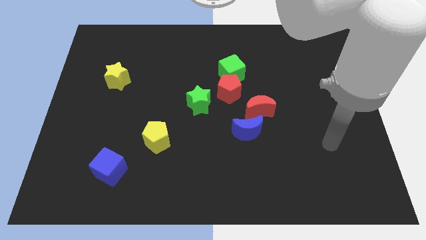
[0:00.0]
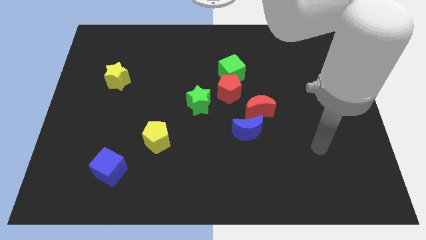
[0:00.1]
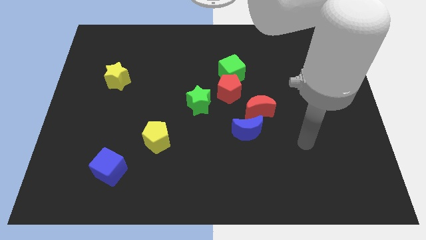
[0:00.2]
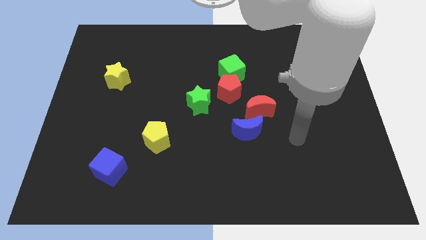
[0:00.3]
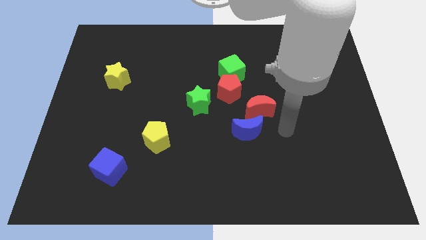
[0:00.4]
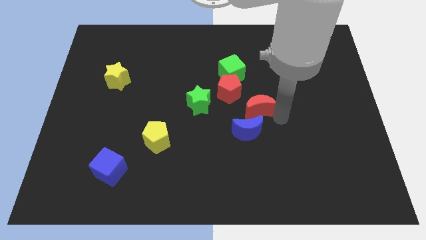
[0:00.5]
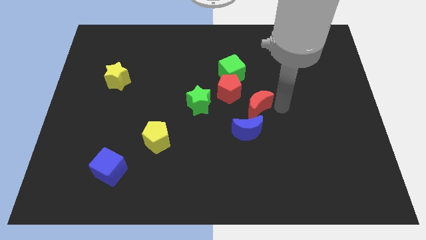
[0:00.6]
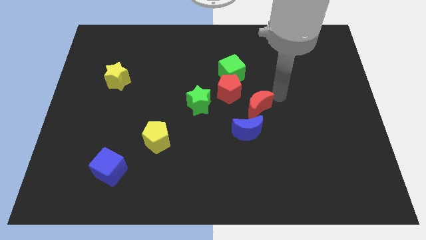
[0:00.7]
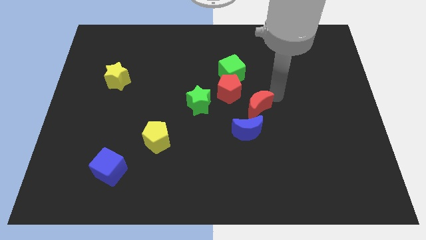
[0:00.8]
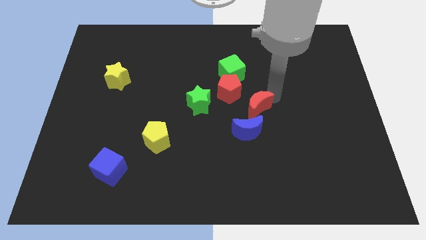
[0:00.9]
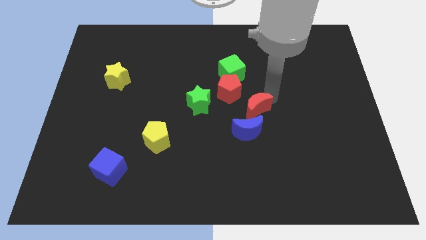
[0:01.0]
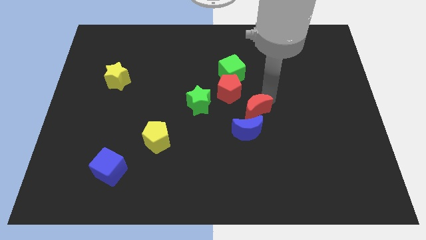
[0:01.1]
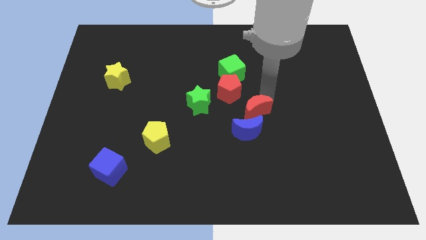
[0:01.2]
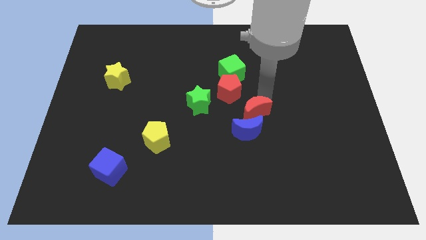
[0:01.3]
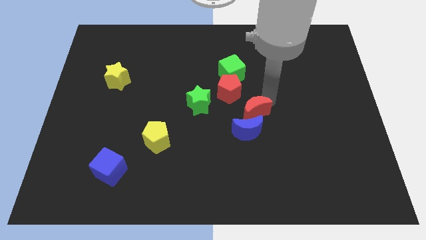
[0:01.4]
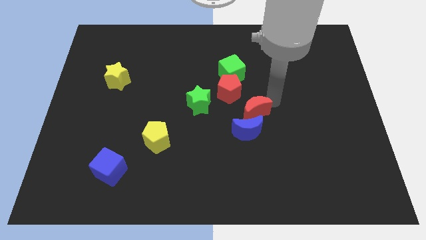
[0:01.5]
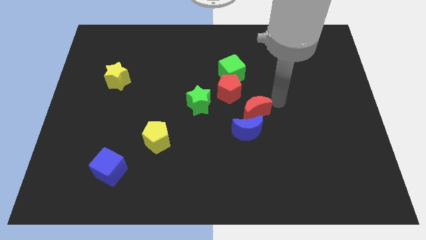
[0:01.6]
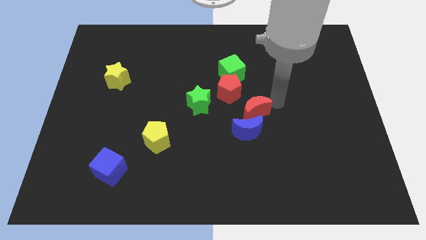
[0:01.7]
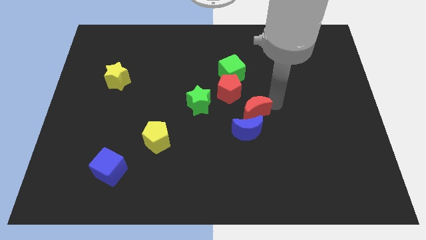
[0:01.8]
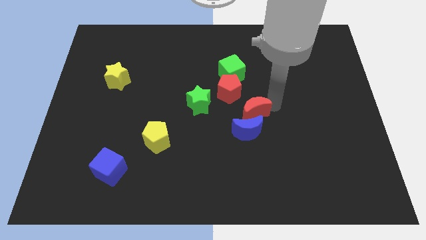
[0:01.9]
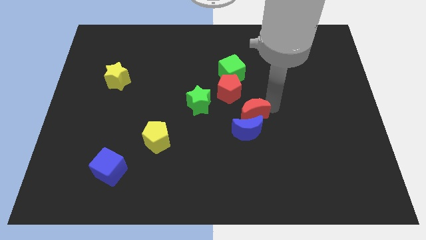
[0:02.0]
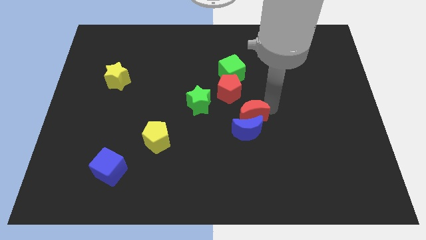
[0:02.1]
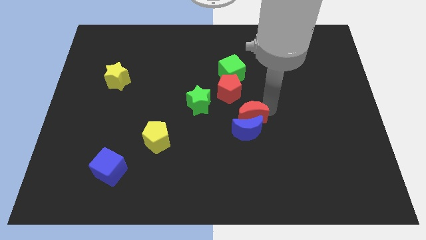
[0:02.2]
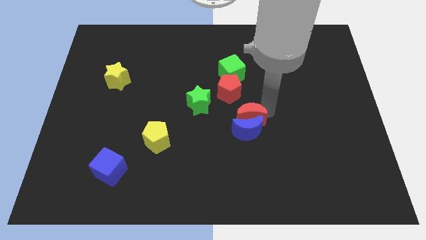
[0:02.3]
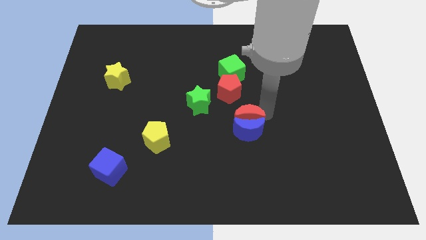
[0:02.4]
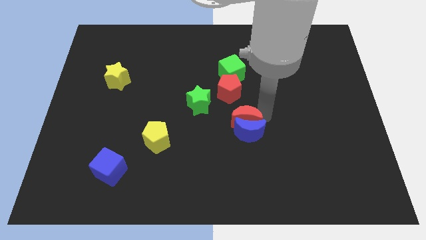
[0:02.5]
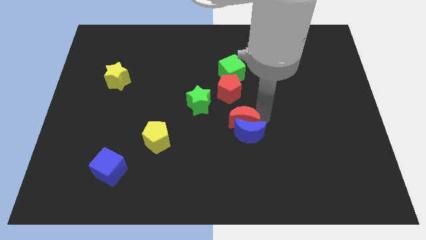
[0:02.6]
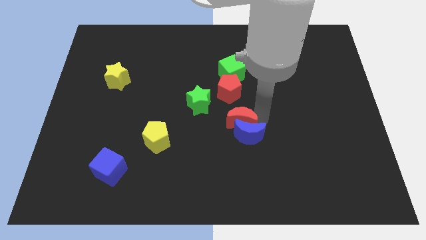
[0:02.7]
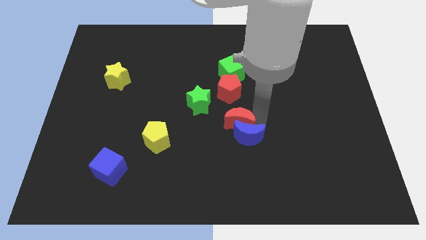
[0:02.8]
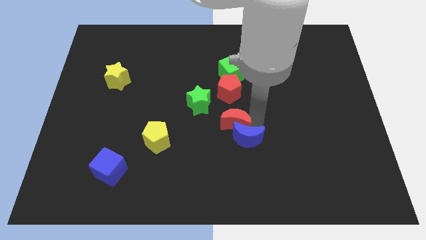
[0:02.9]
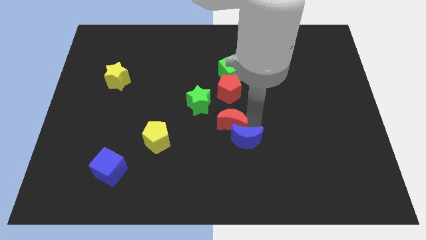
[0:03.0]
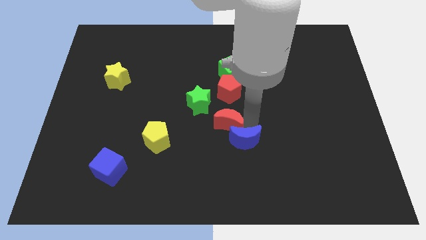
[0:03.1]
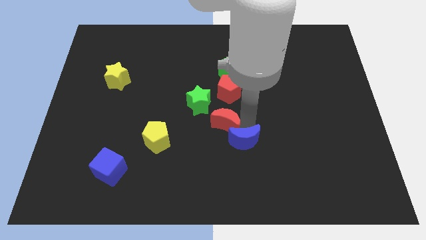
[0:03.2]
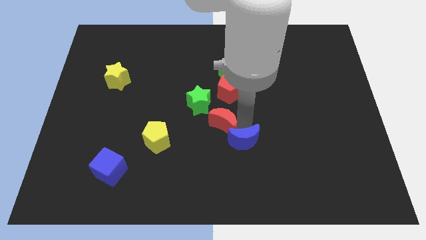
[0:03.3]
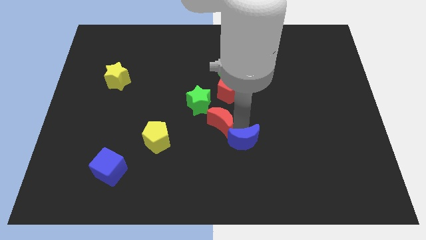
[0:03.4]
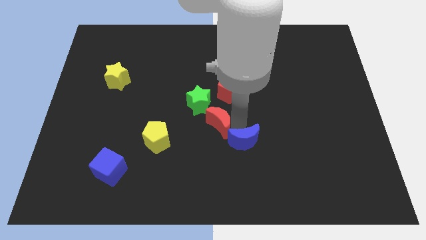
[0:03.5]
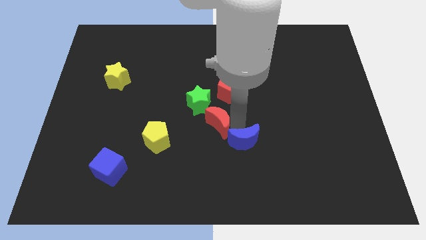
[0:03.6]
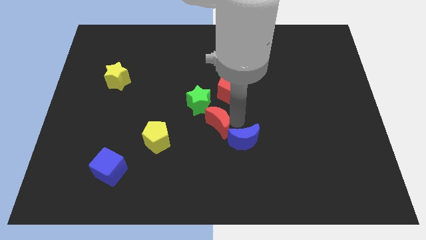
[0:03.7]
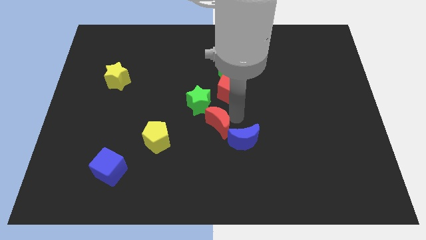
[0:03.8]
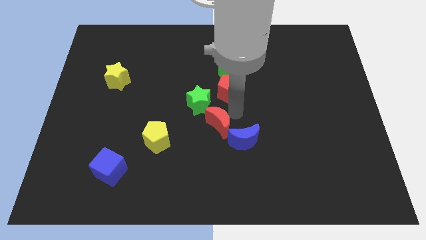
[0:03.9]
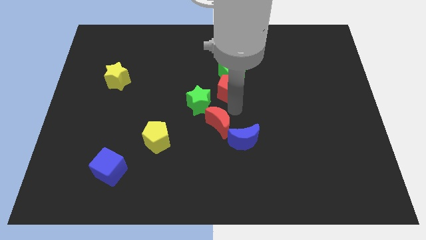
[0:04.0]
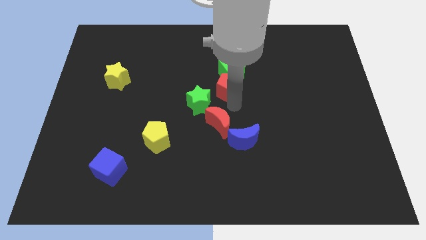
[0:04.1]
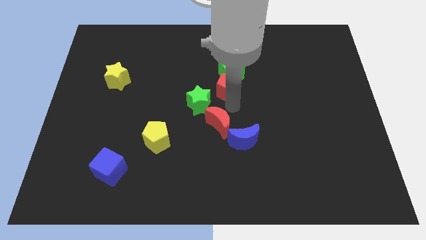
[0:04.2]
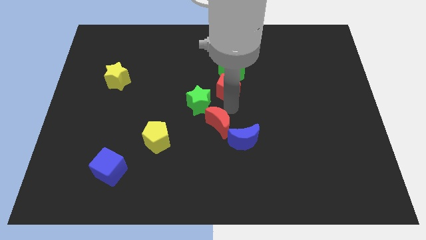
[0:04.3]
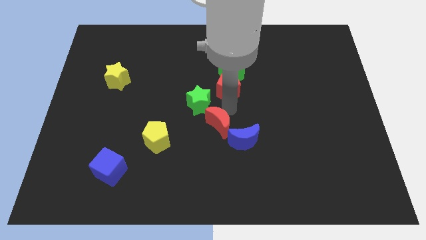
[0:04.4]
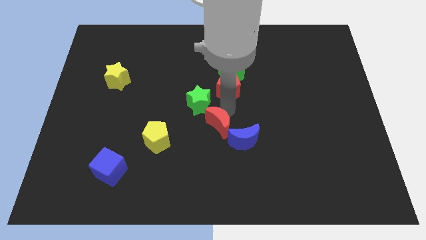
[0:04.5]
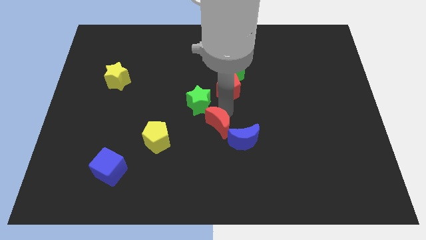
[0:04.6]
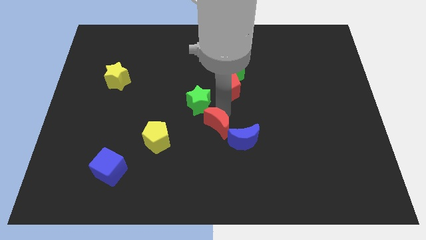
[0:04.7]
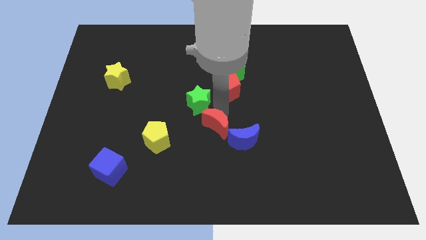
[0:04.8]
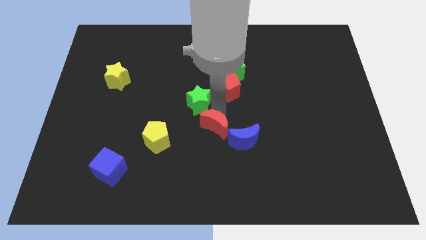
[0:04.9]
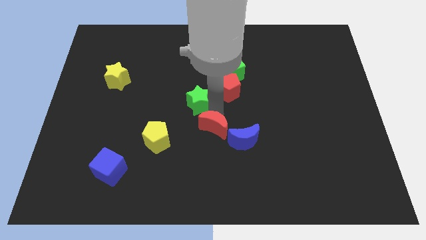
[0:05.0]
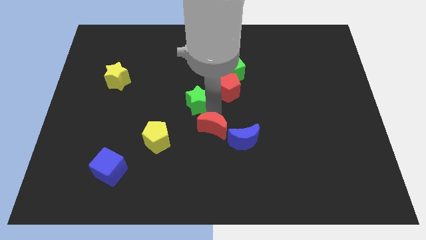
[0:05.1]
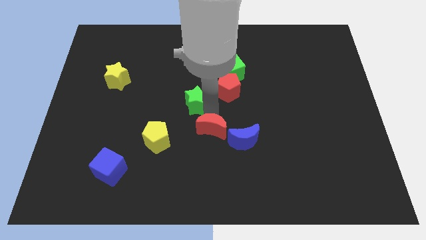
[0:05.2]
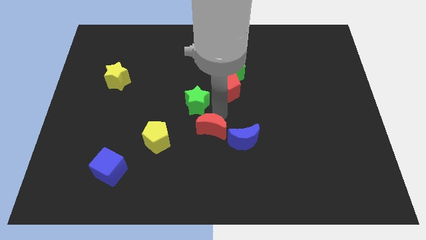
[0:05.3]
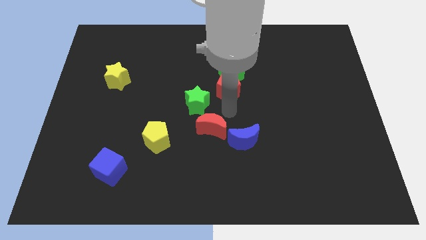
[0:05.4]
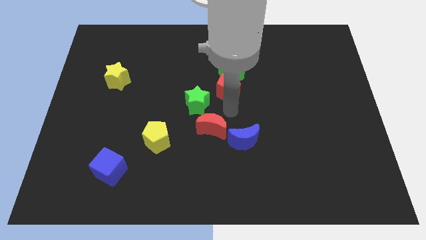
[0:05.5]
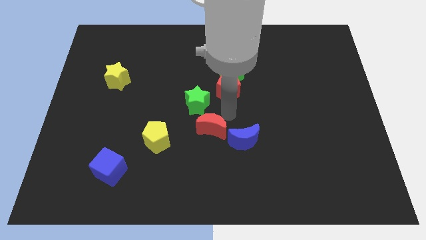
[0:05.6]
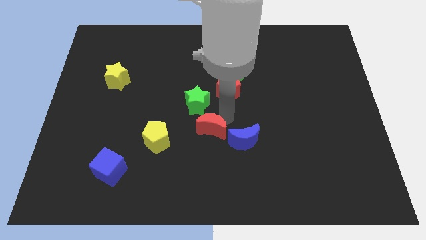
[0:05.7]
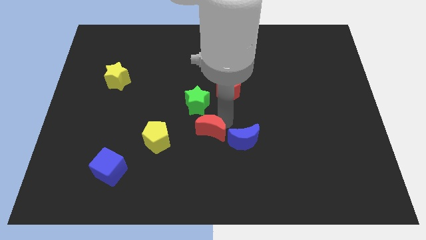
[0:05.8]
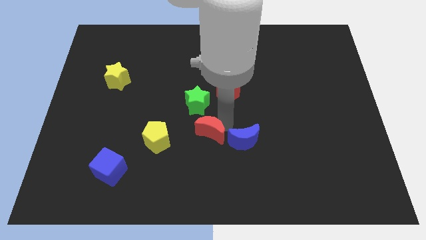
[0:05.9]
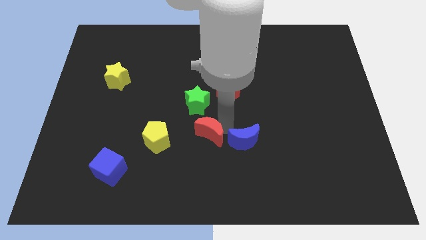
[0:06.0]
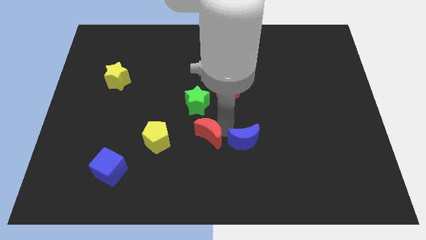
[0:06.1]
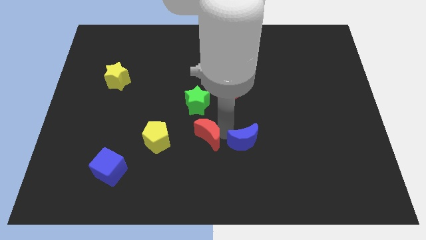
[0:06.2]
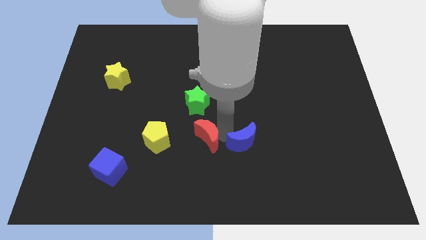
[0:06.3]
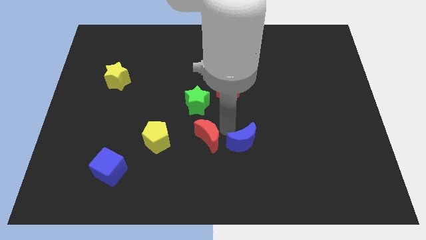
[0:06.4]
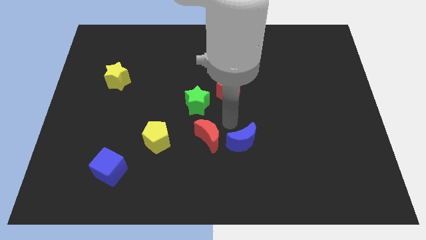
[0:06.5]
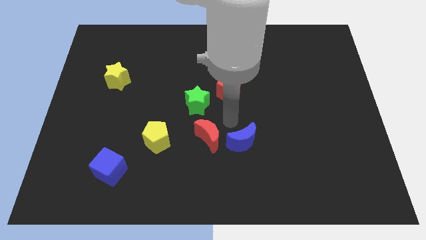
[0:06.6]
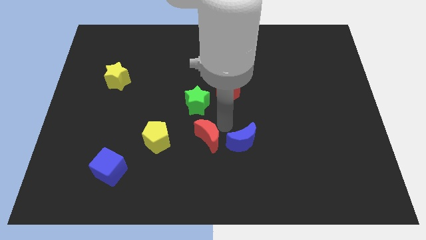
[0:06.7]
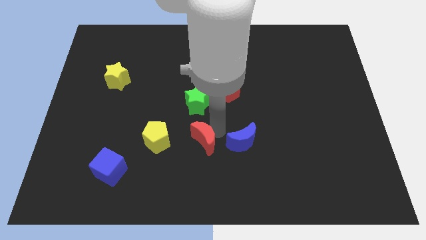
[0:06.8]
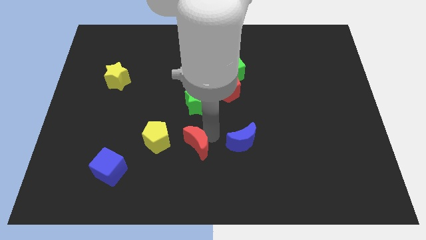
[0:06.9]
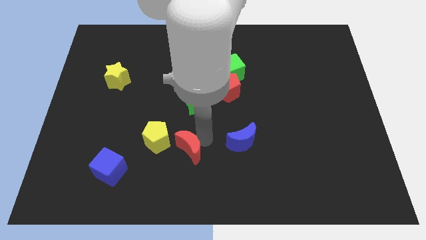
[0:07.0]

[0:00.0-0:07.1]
move the red moon to the bottom right of the yellow pentagon

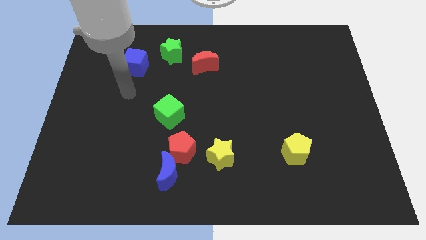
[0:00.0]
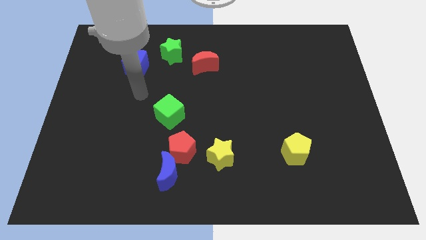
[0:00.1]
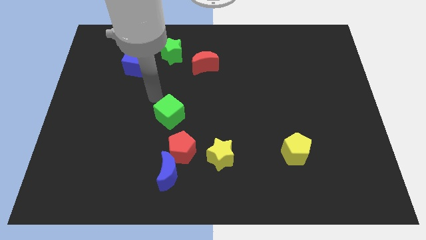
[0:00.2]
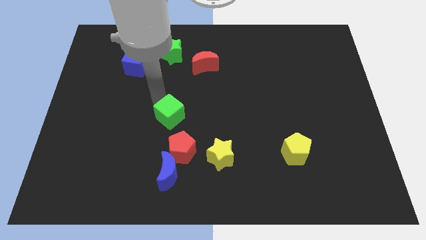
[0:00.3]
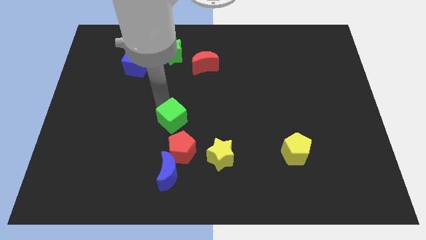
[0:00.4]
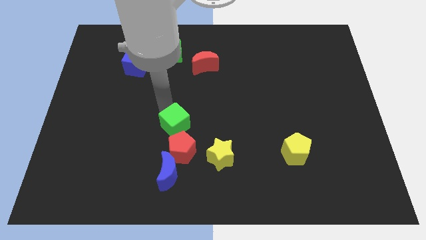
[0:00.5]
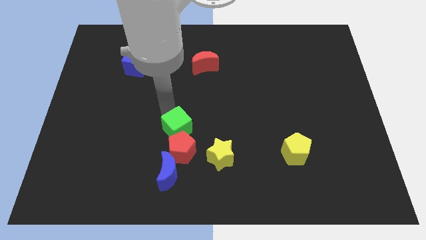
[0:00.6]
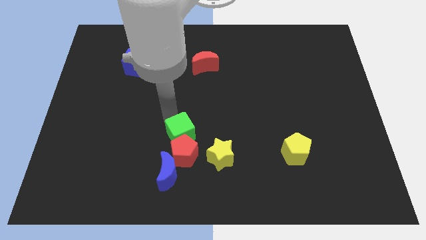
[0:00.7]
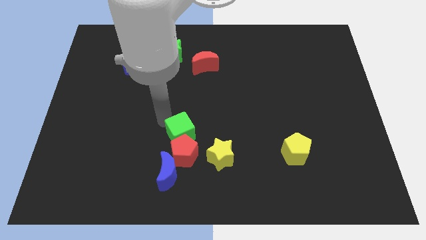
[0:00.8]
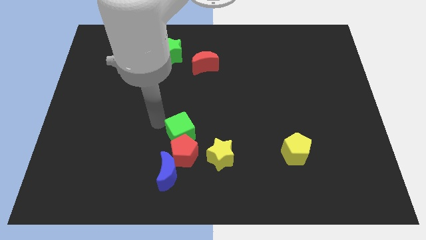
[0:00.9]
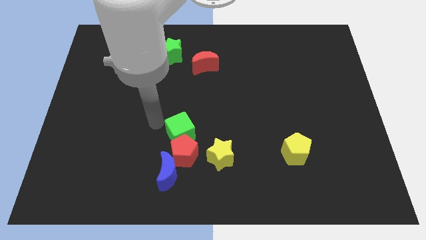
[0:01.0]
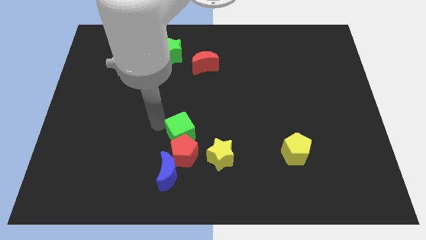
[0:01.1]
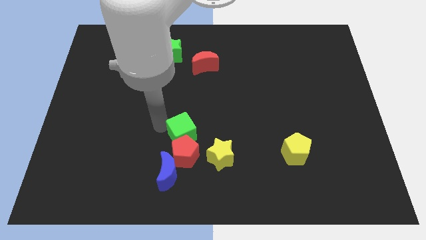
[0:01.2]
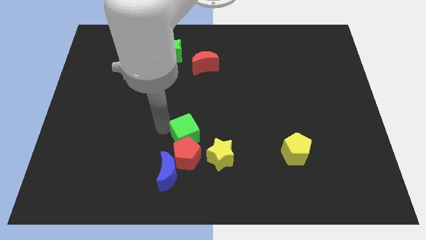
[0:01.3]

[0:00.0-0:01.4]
put the green cube to the top right of the blue moon
